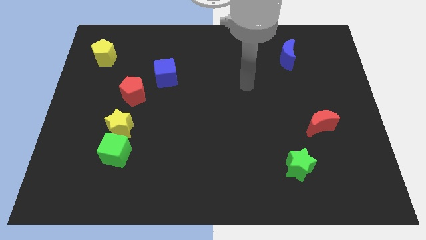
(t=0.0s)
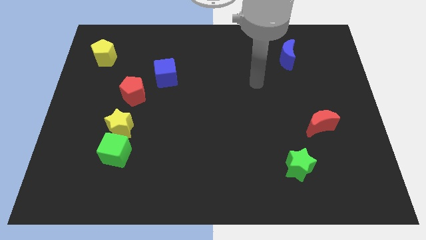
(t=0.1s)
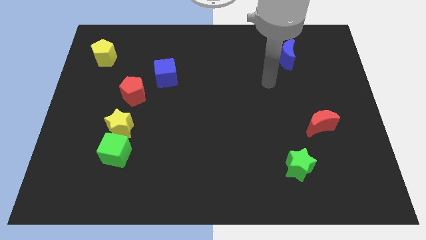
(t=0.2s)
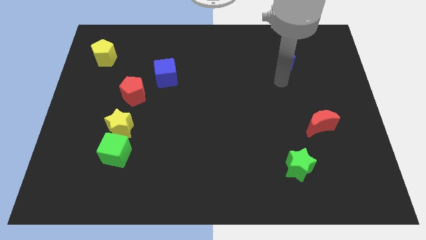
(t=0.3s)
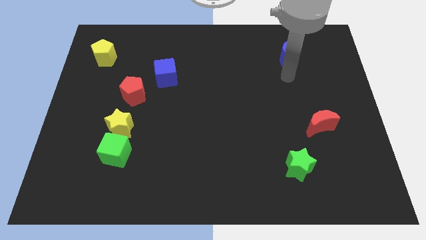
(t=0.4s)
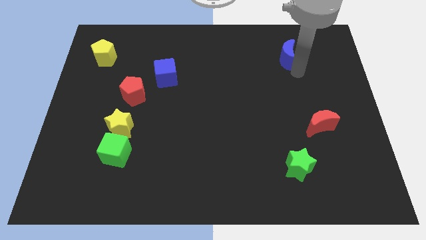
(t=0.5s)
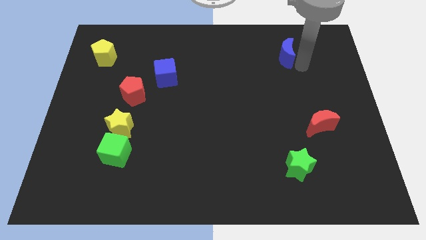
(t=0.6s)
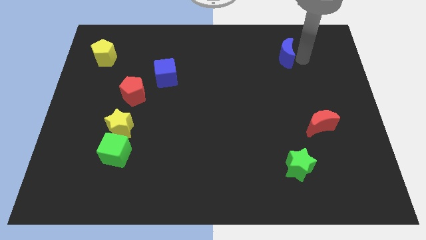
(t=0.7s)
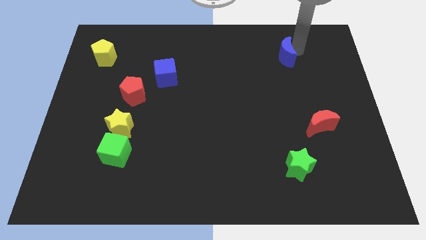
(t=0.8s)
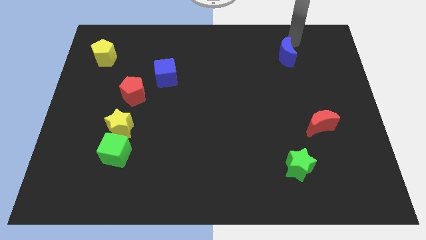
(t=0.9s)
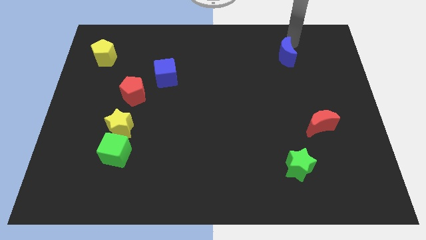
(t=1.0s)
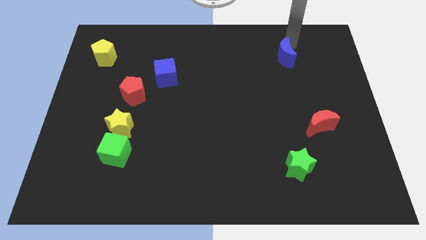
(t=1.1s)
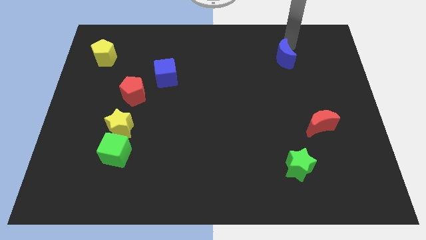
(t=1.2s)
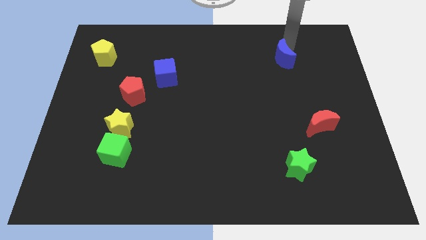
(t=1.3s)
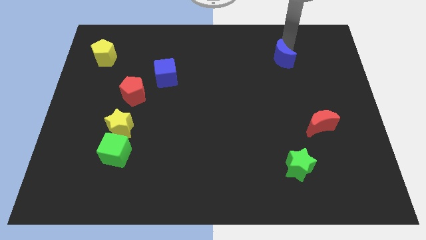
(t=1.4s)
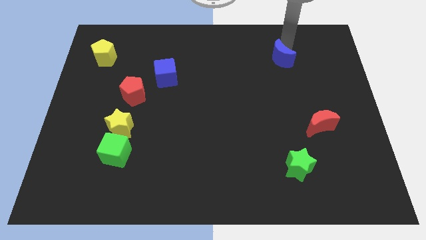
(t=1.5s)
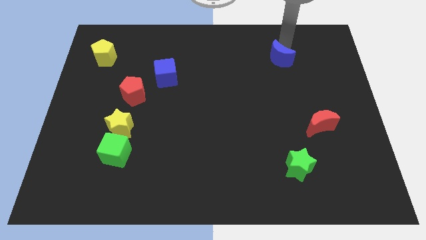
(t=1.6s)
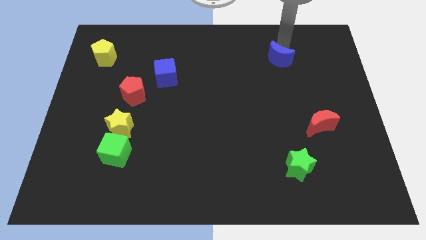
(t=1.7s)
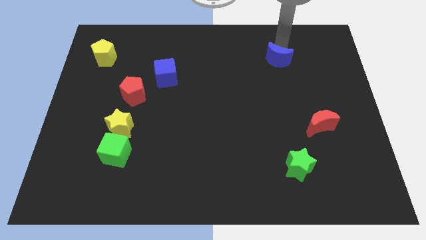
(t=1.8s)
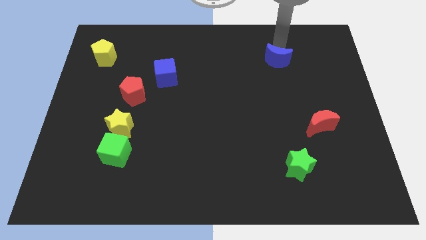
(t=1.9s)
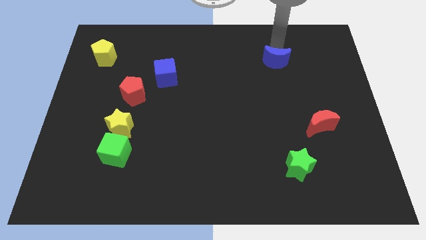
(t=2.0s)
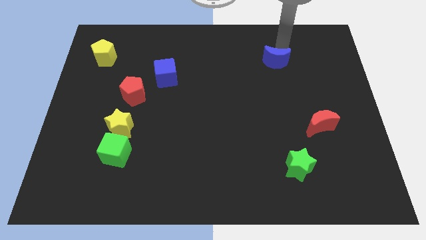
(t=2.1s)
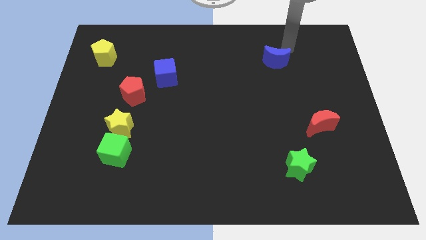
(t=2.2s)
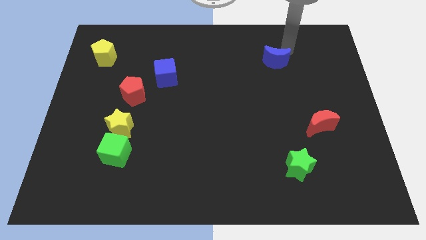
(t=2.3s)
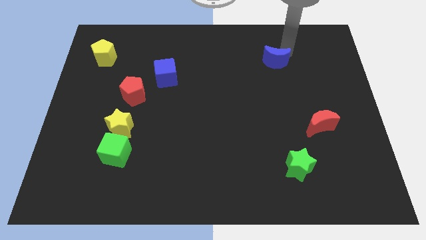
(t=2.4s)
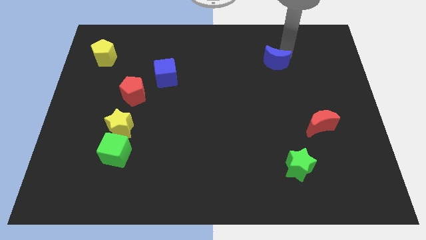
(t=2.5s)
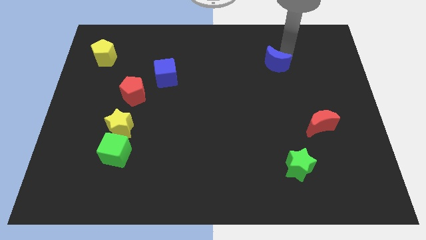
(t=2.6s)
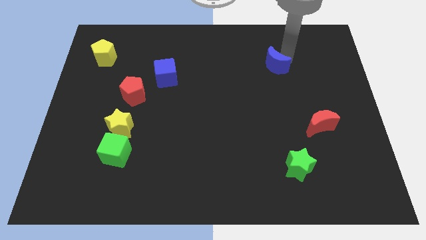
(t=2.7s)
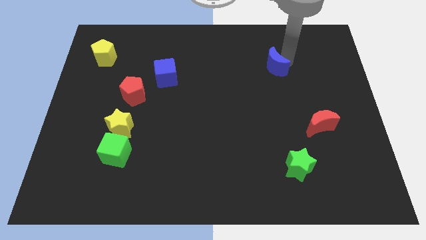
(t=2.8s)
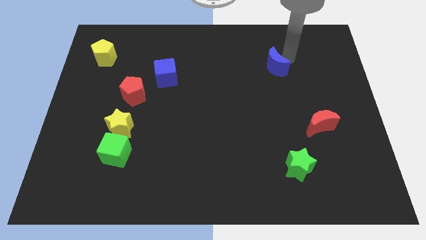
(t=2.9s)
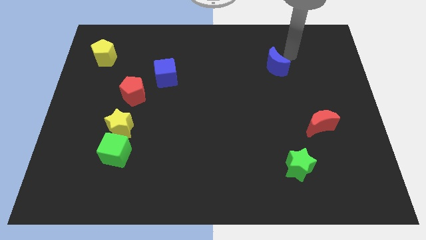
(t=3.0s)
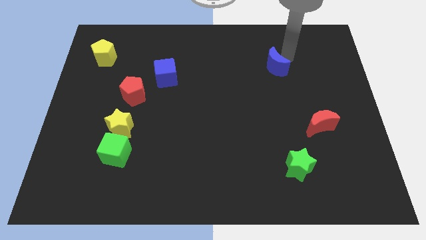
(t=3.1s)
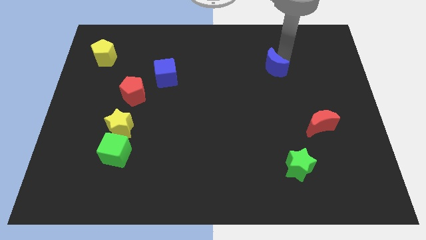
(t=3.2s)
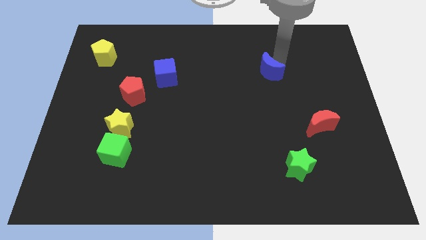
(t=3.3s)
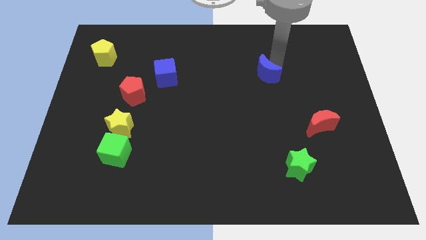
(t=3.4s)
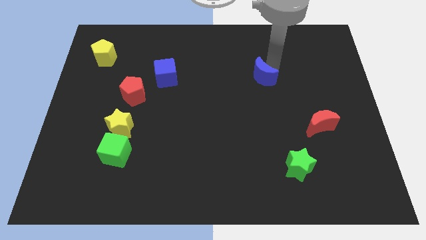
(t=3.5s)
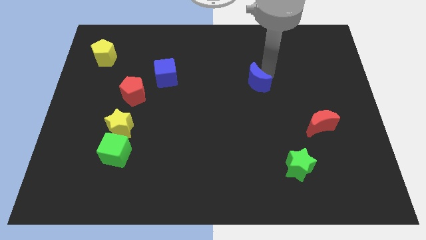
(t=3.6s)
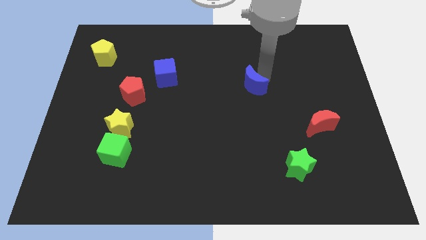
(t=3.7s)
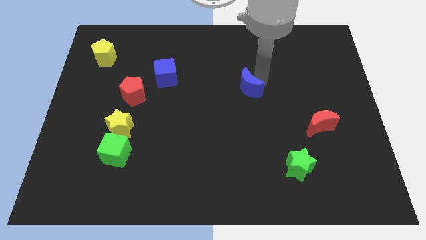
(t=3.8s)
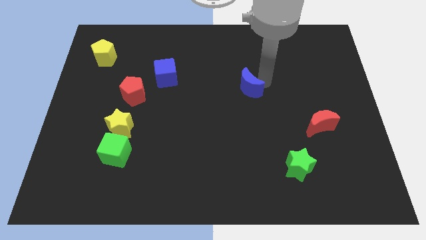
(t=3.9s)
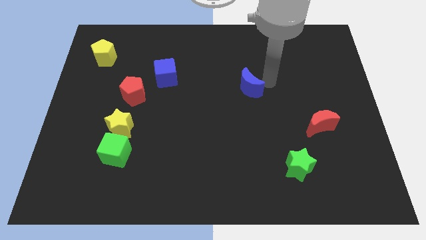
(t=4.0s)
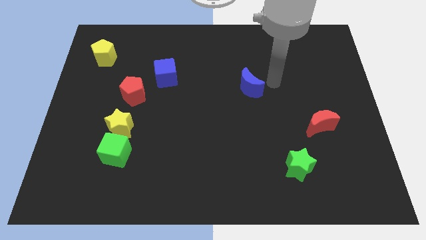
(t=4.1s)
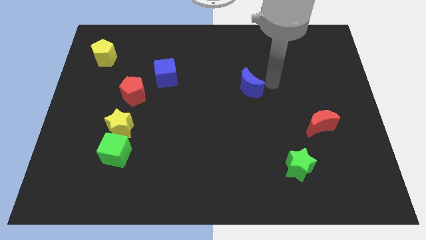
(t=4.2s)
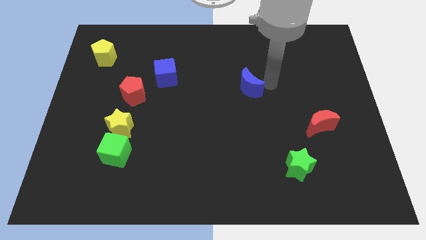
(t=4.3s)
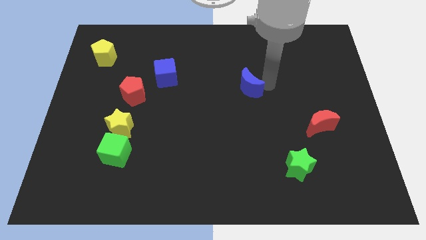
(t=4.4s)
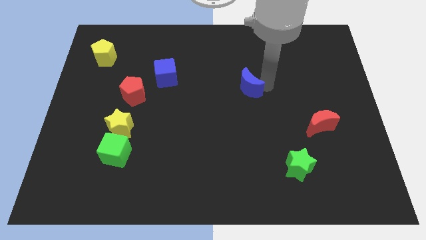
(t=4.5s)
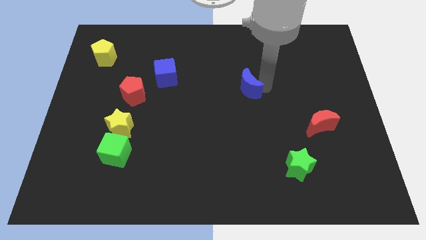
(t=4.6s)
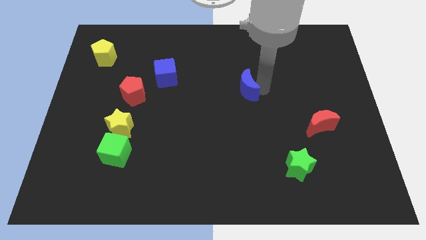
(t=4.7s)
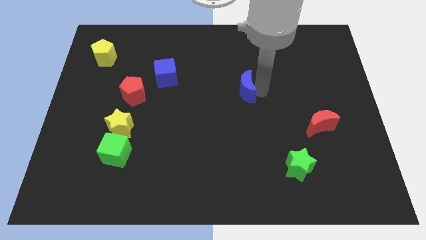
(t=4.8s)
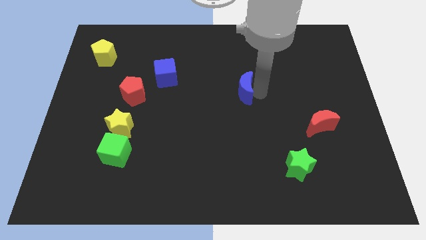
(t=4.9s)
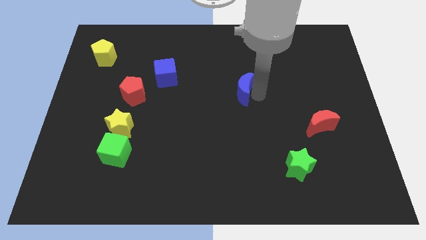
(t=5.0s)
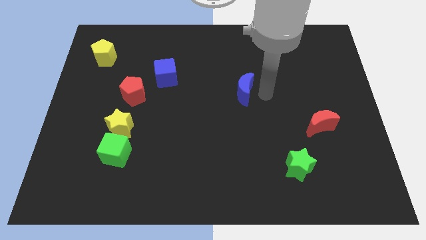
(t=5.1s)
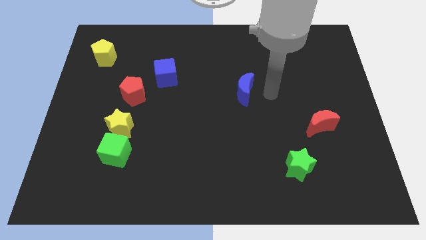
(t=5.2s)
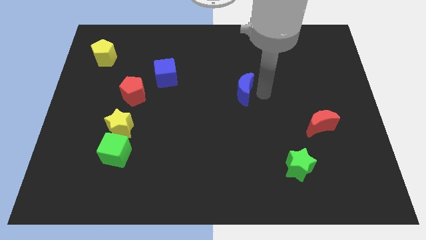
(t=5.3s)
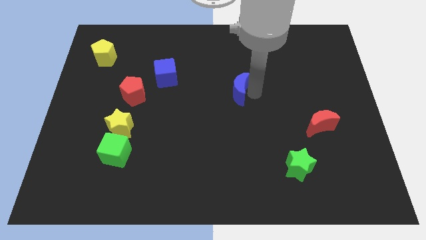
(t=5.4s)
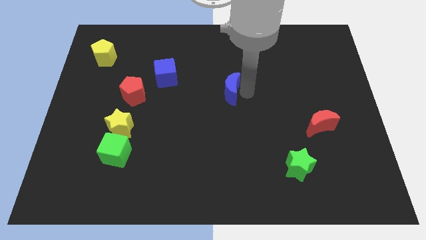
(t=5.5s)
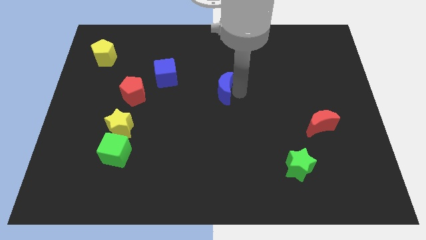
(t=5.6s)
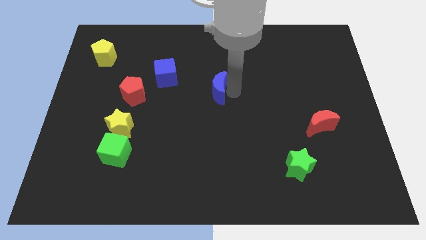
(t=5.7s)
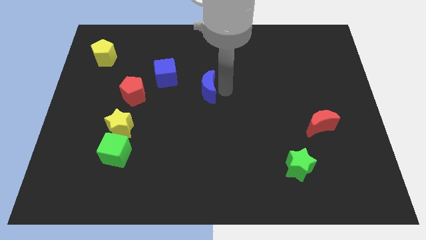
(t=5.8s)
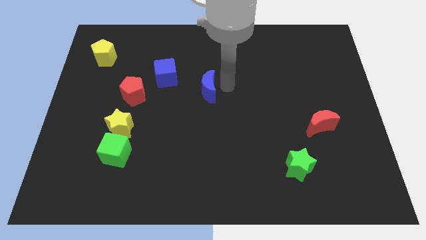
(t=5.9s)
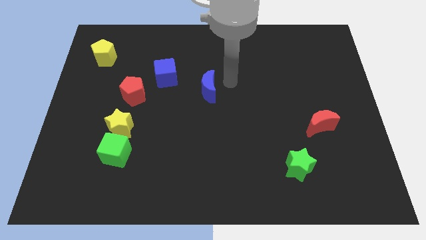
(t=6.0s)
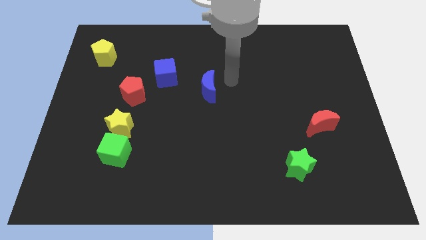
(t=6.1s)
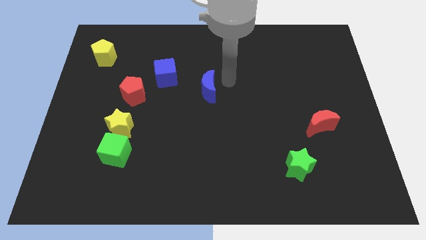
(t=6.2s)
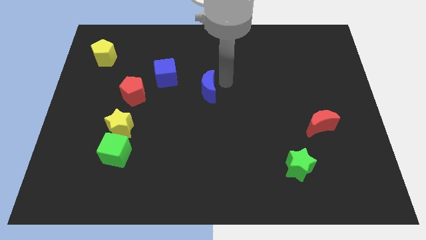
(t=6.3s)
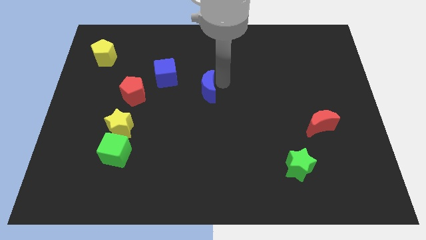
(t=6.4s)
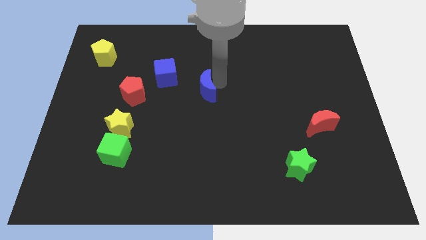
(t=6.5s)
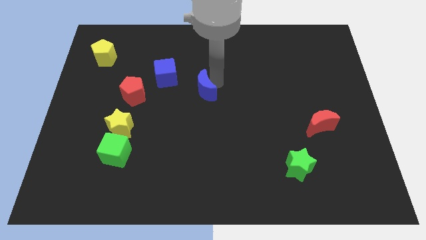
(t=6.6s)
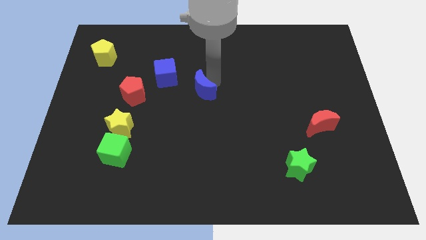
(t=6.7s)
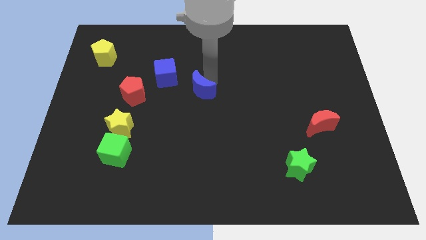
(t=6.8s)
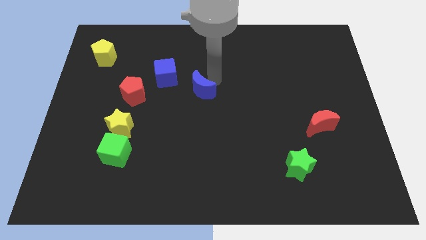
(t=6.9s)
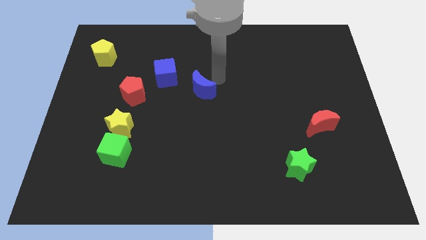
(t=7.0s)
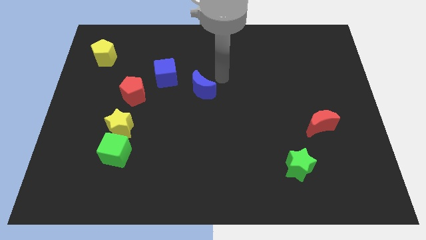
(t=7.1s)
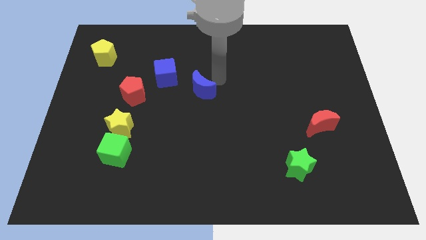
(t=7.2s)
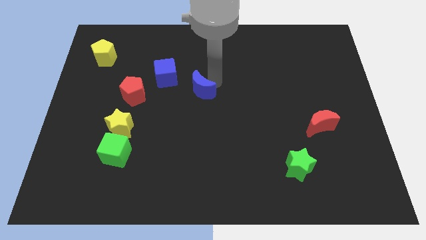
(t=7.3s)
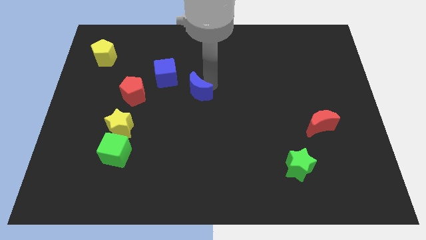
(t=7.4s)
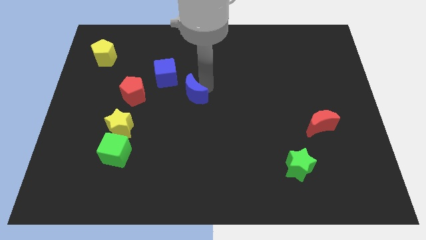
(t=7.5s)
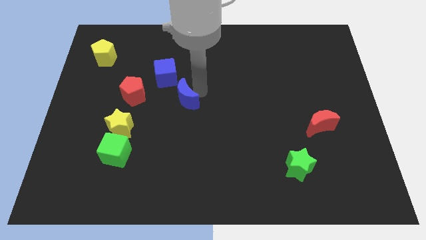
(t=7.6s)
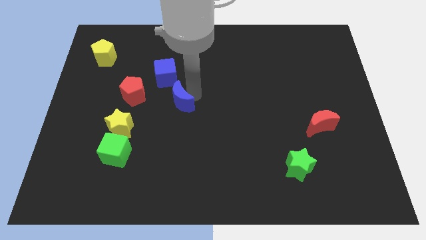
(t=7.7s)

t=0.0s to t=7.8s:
put the blue moon to the bottom side of the blue cube
